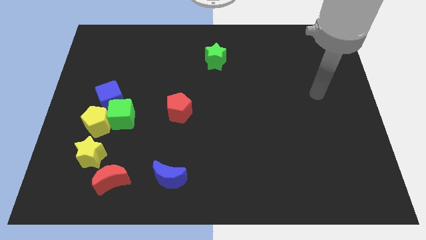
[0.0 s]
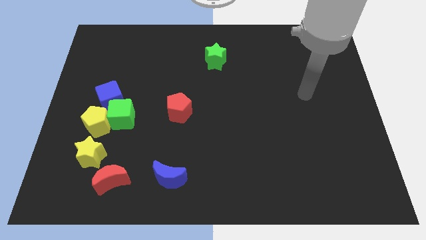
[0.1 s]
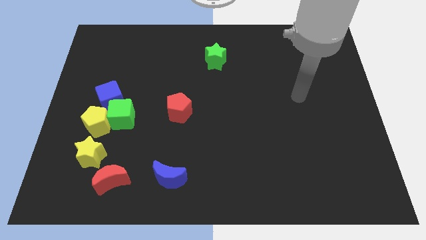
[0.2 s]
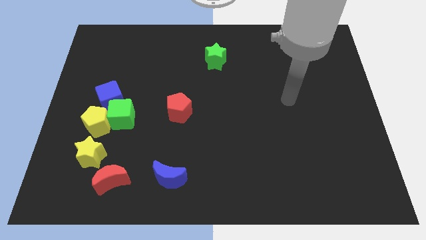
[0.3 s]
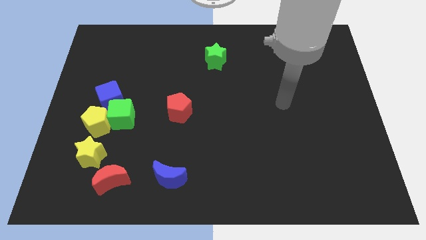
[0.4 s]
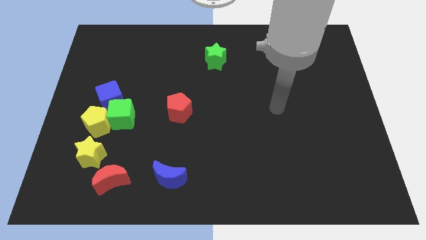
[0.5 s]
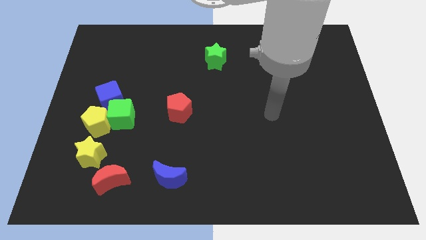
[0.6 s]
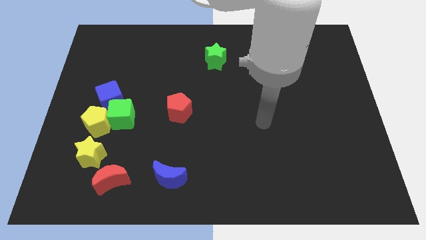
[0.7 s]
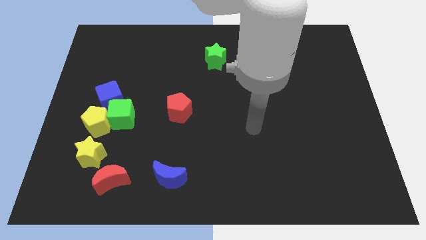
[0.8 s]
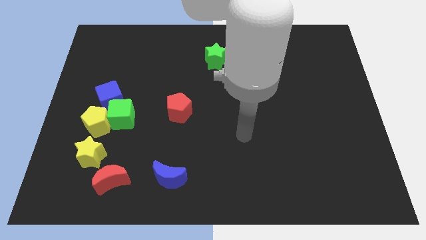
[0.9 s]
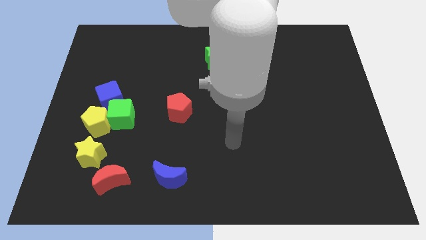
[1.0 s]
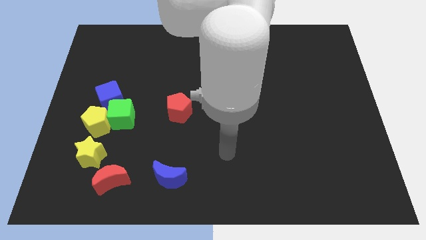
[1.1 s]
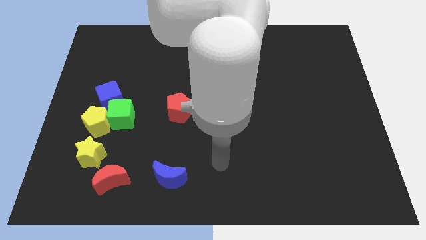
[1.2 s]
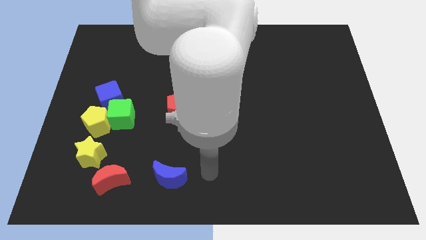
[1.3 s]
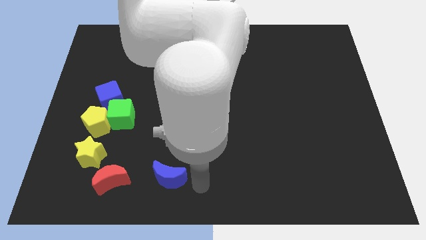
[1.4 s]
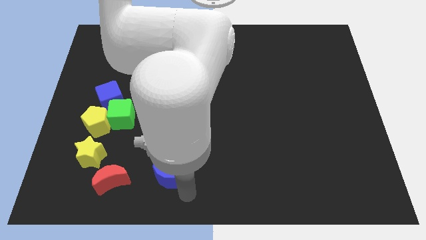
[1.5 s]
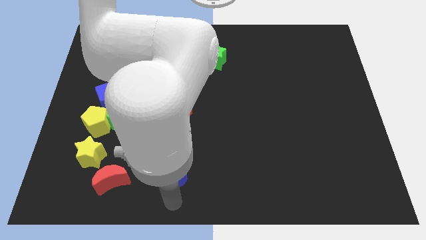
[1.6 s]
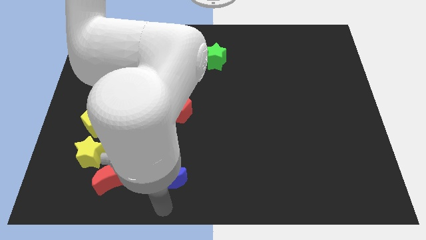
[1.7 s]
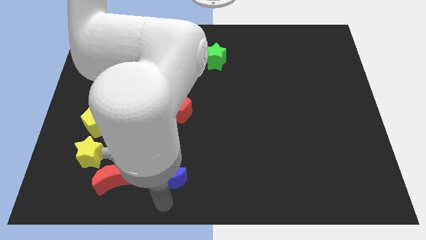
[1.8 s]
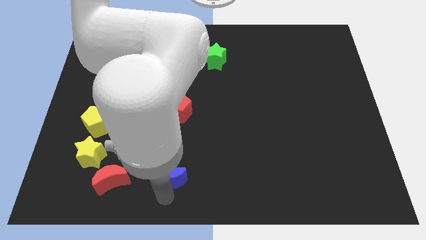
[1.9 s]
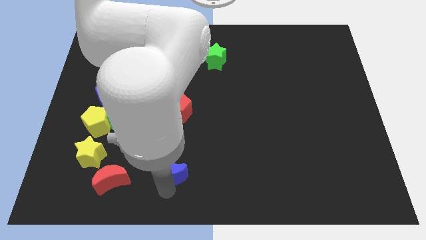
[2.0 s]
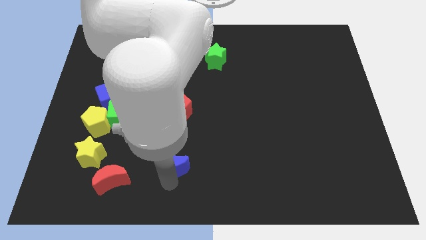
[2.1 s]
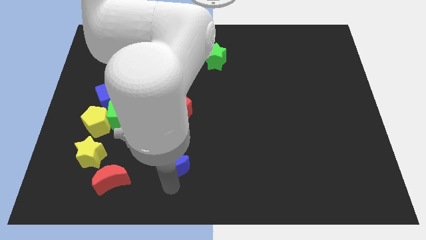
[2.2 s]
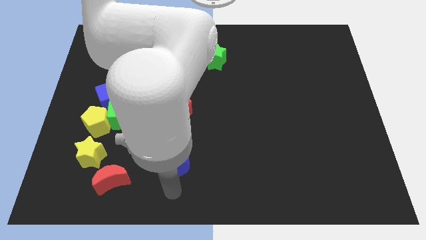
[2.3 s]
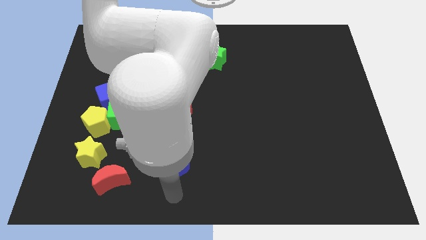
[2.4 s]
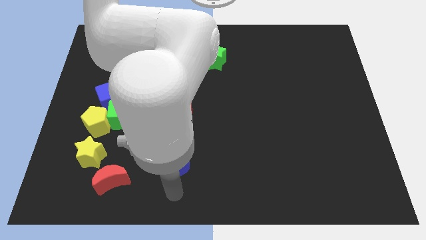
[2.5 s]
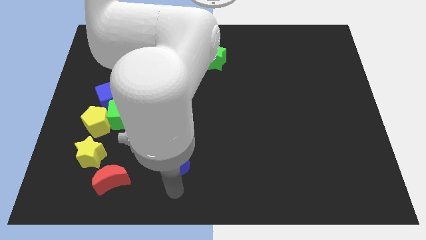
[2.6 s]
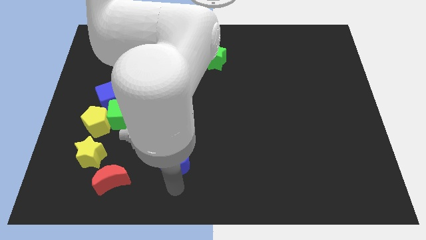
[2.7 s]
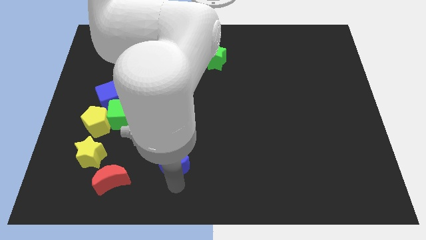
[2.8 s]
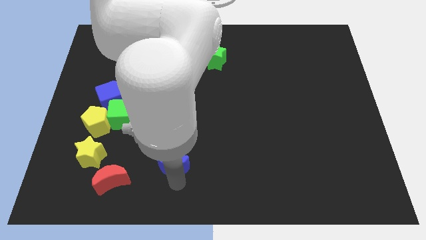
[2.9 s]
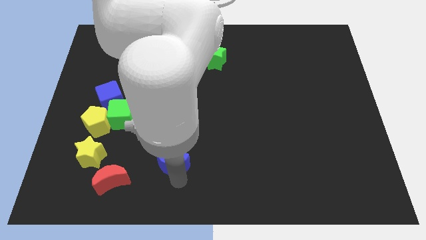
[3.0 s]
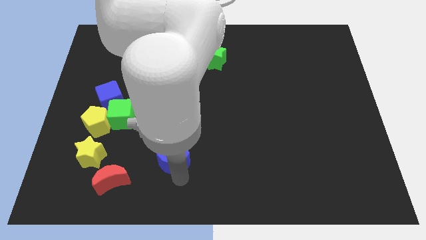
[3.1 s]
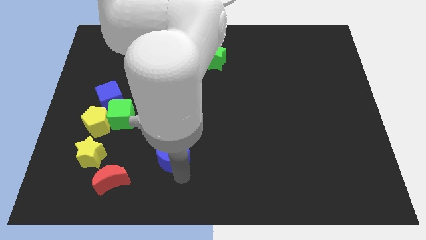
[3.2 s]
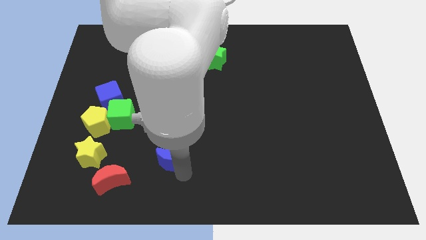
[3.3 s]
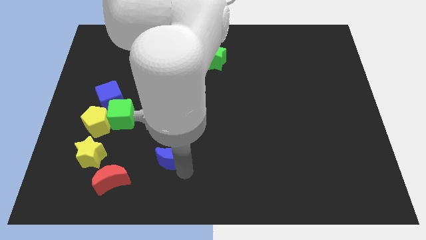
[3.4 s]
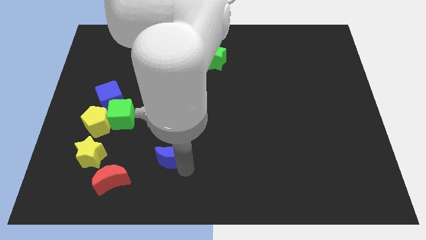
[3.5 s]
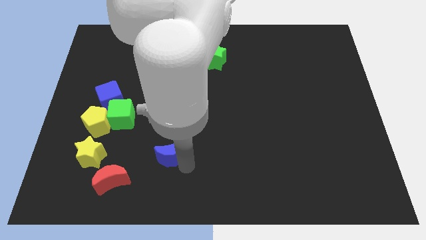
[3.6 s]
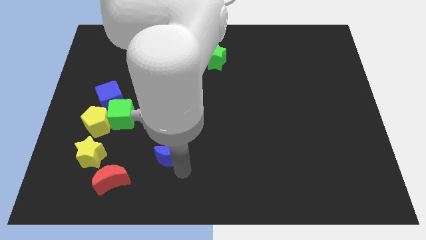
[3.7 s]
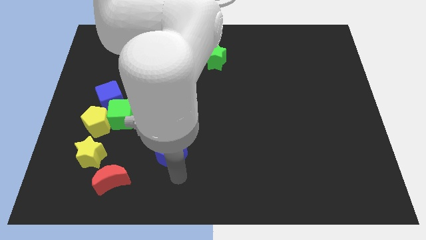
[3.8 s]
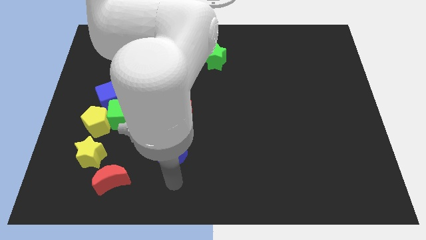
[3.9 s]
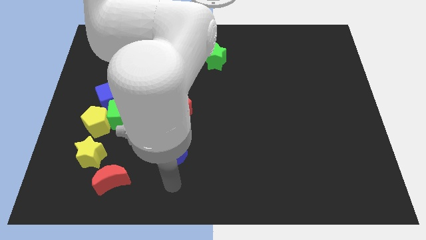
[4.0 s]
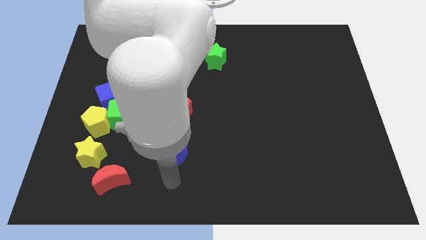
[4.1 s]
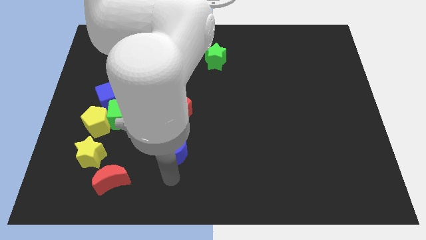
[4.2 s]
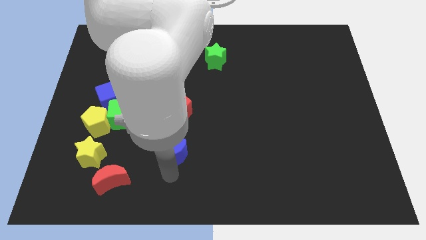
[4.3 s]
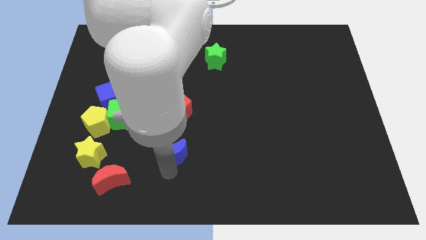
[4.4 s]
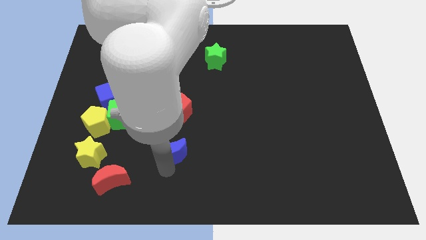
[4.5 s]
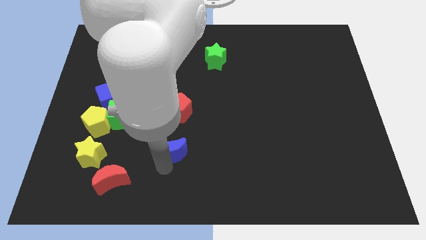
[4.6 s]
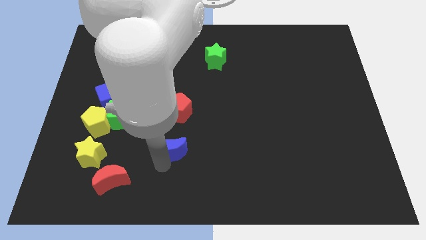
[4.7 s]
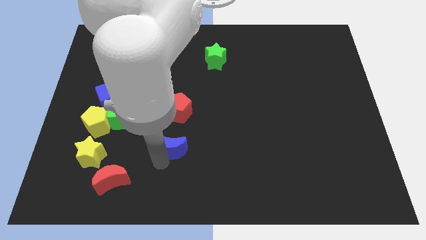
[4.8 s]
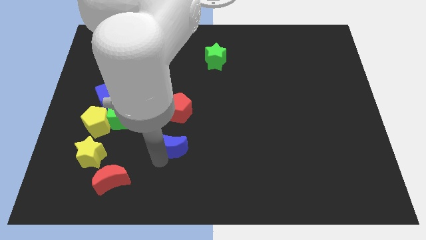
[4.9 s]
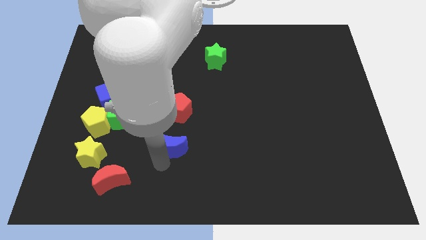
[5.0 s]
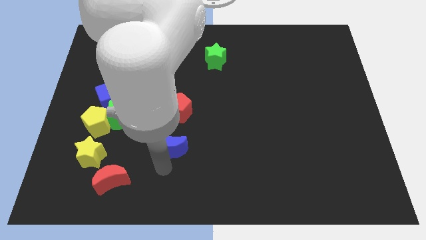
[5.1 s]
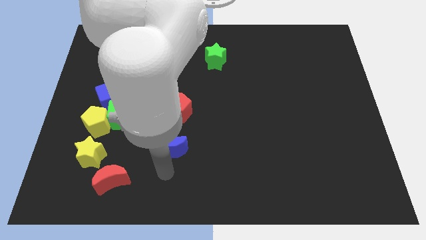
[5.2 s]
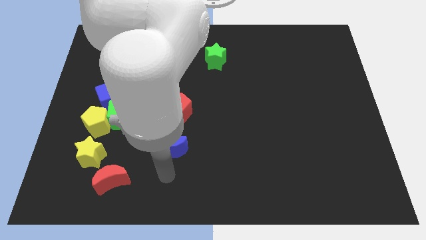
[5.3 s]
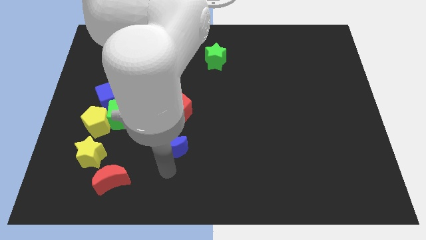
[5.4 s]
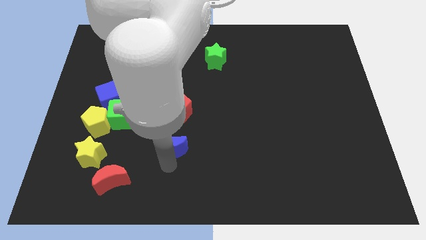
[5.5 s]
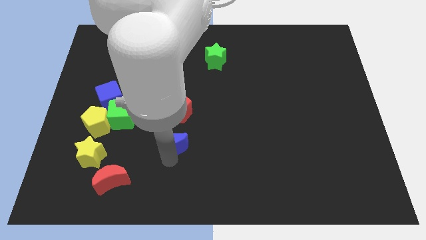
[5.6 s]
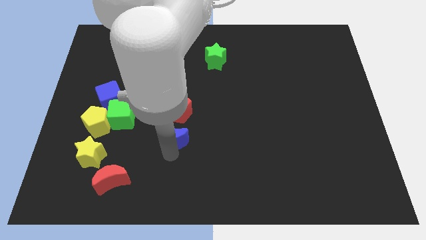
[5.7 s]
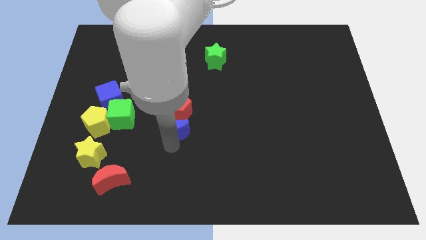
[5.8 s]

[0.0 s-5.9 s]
push the blue moon next to the red pentagon

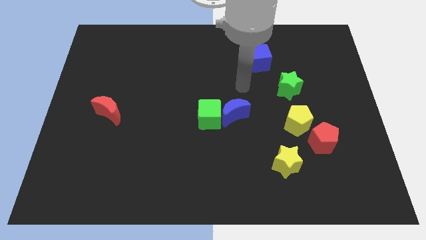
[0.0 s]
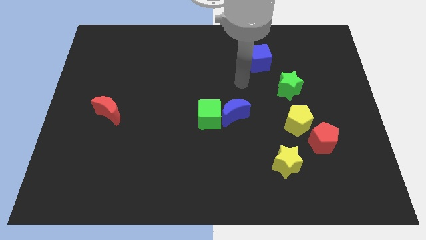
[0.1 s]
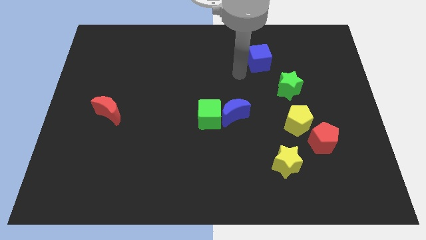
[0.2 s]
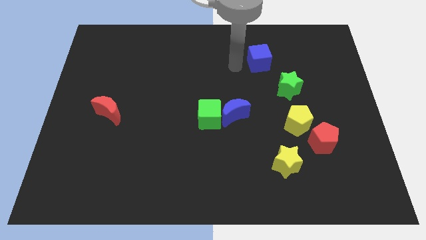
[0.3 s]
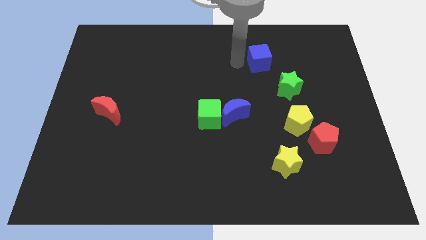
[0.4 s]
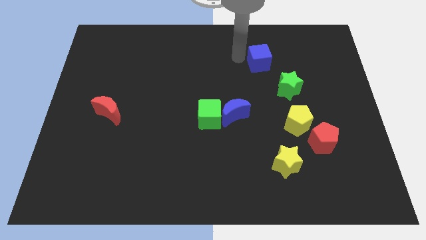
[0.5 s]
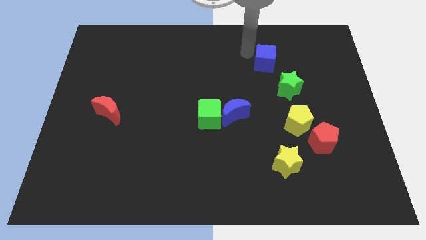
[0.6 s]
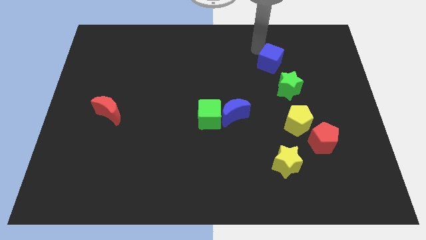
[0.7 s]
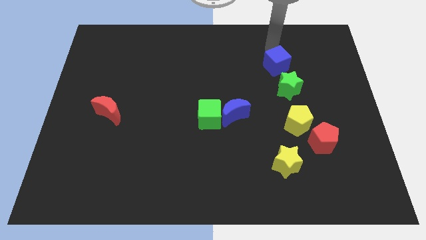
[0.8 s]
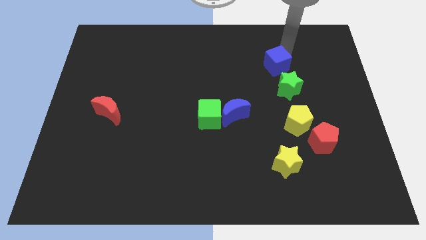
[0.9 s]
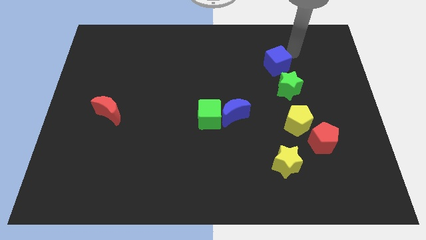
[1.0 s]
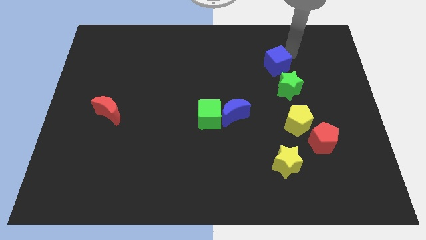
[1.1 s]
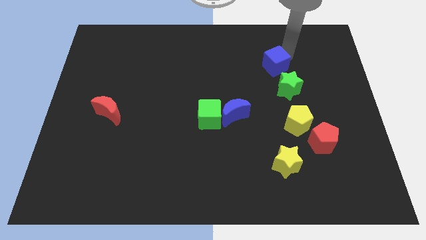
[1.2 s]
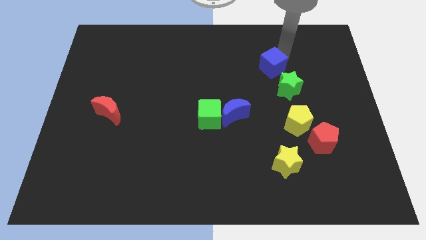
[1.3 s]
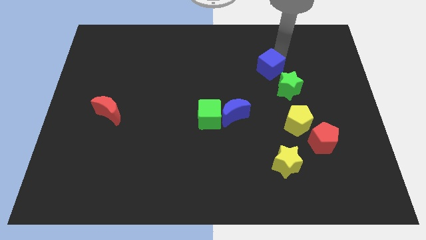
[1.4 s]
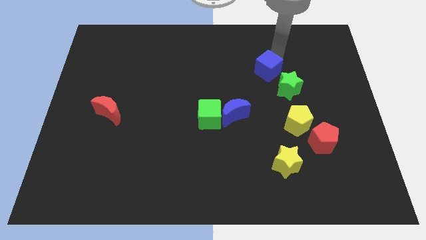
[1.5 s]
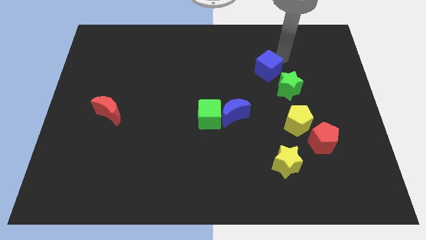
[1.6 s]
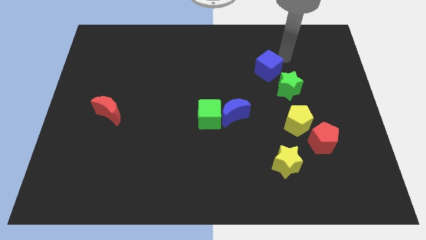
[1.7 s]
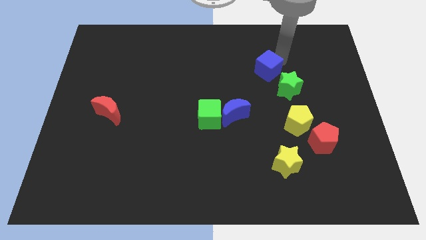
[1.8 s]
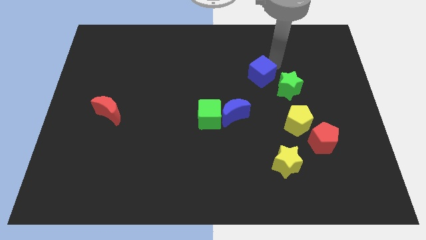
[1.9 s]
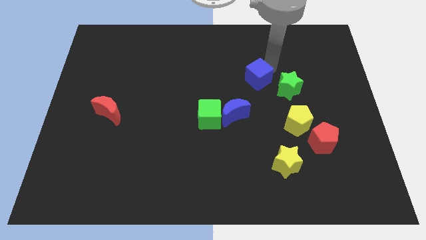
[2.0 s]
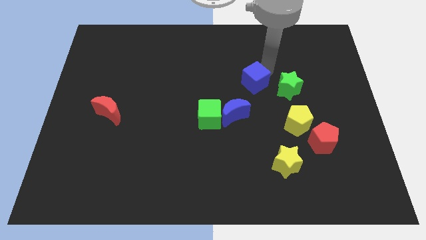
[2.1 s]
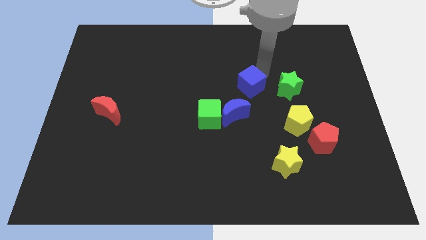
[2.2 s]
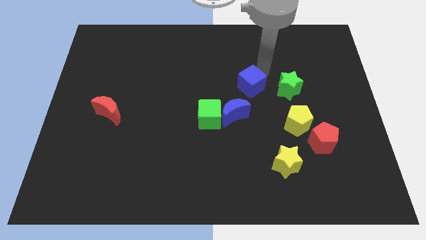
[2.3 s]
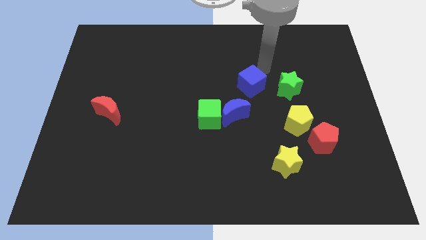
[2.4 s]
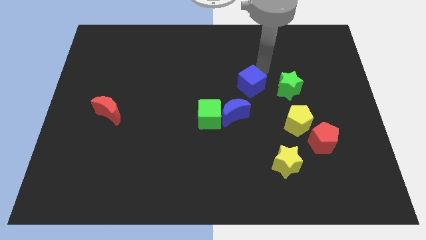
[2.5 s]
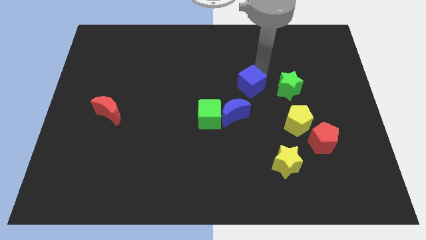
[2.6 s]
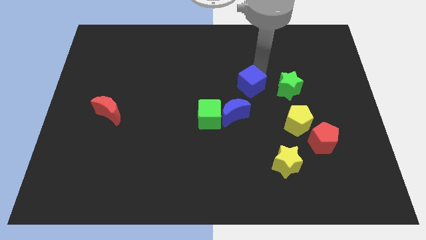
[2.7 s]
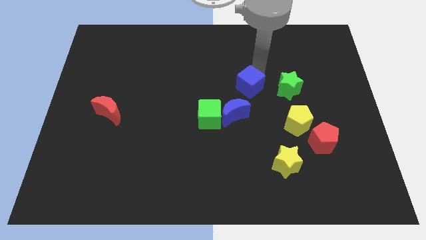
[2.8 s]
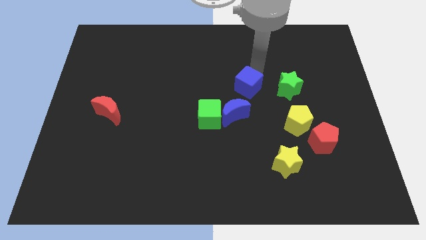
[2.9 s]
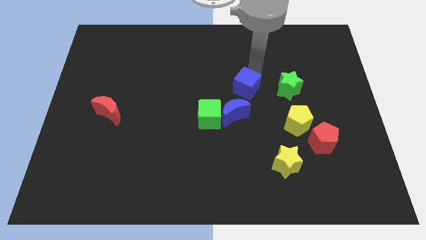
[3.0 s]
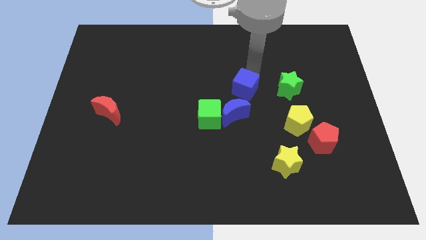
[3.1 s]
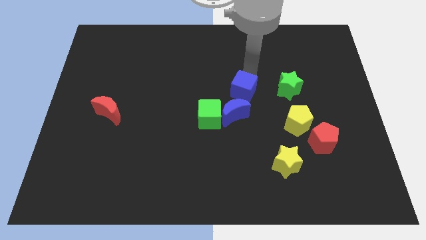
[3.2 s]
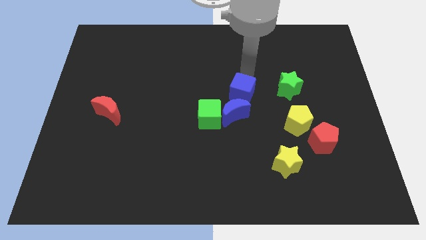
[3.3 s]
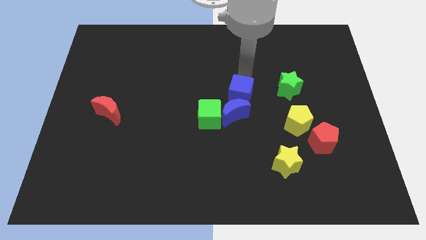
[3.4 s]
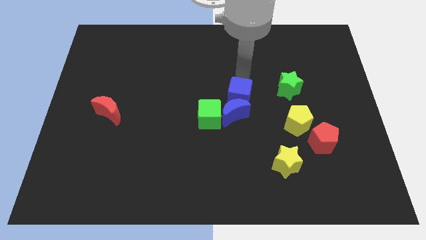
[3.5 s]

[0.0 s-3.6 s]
slide the blue cube next to the blue moon
